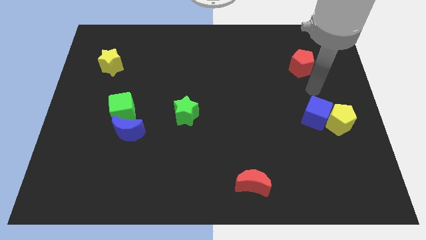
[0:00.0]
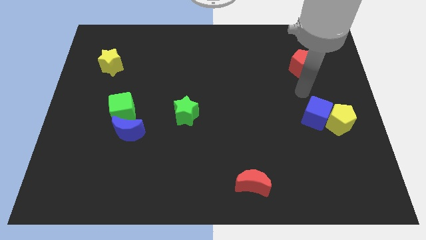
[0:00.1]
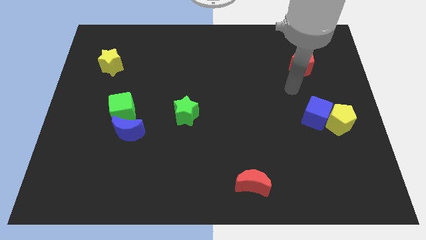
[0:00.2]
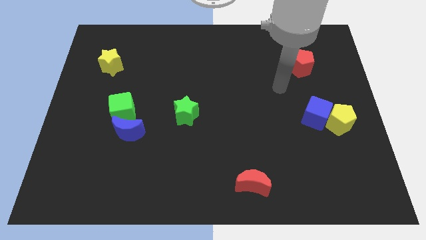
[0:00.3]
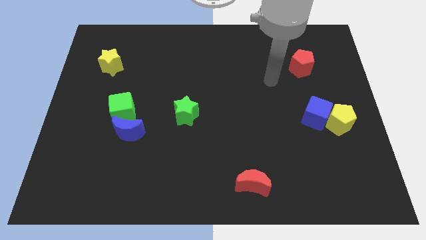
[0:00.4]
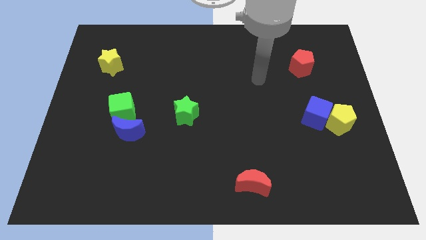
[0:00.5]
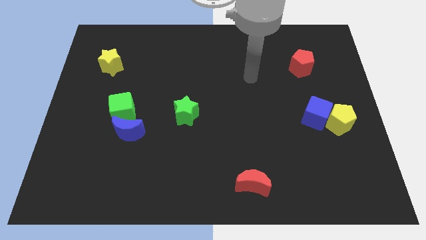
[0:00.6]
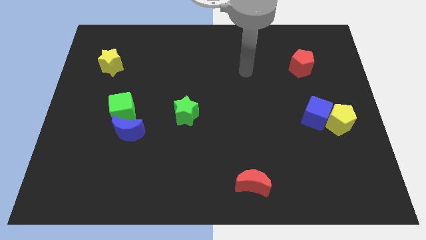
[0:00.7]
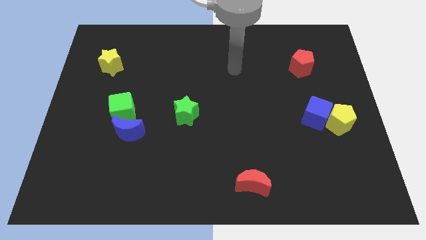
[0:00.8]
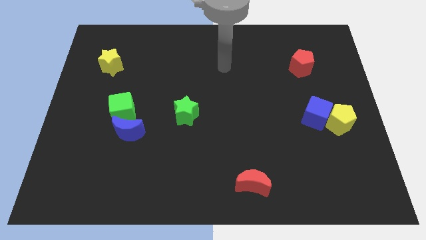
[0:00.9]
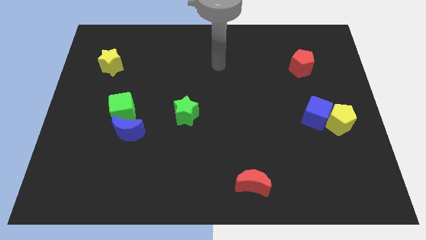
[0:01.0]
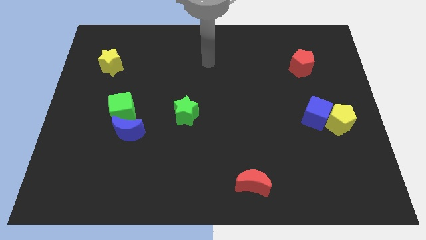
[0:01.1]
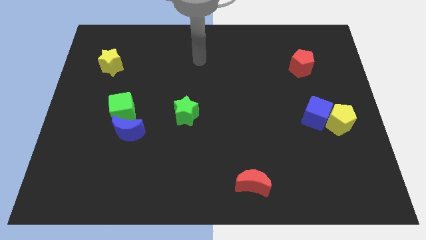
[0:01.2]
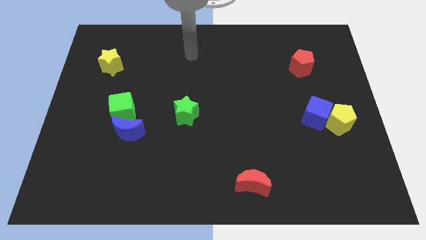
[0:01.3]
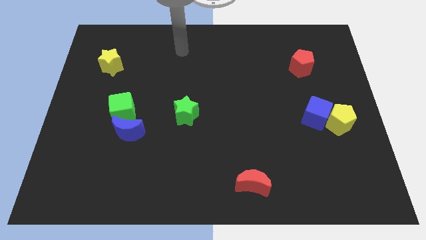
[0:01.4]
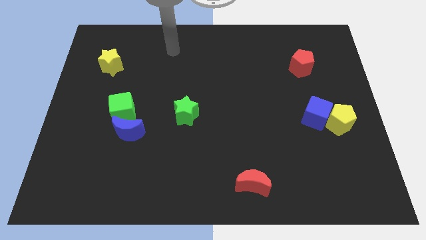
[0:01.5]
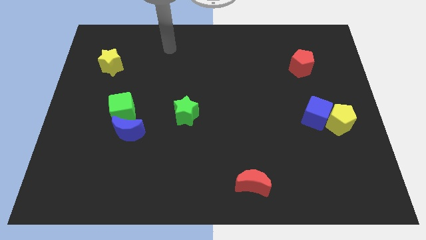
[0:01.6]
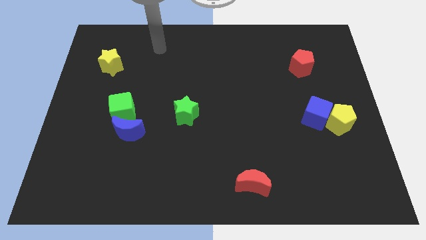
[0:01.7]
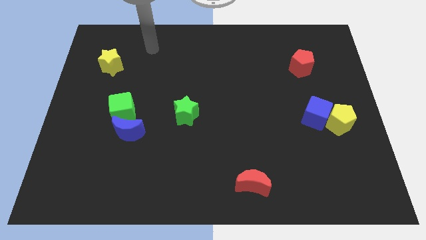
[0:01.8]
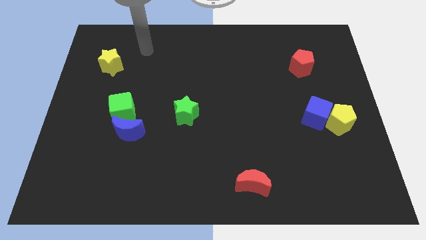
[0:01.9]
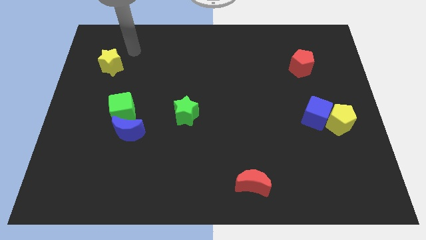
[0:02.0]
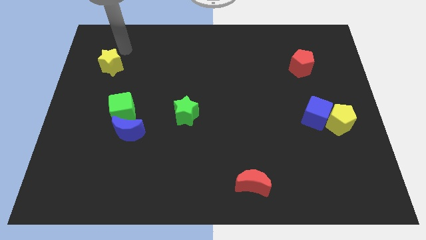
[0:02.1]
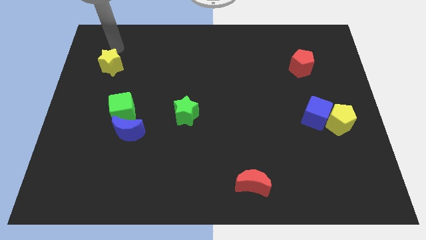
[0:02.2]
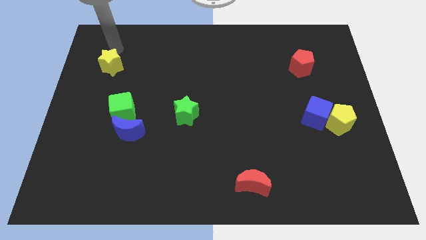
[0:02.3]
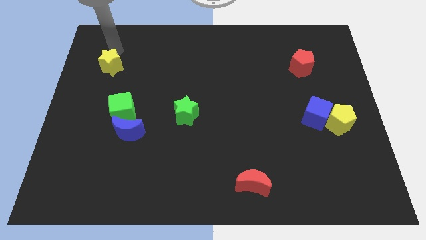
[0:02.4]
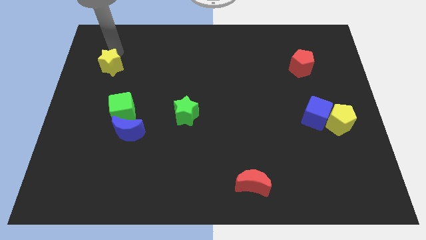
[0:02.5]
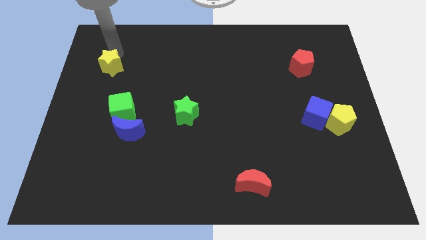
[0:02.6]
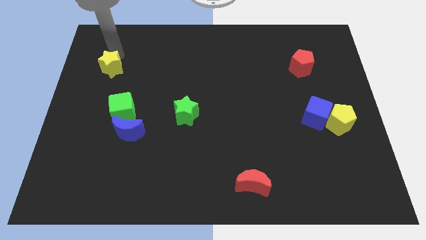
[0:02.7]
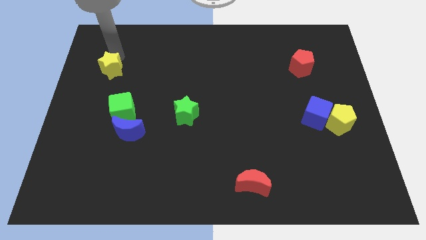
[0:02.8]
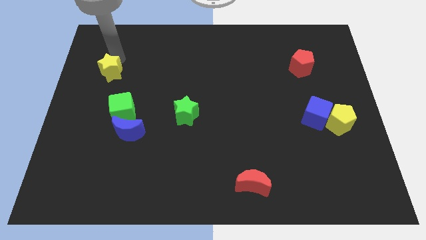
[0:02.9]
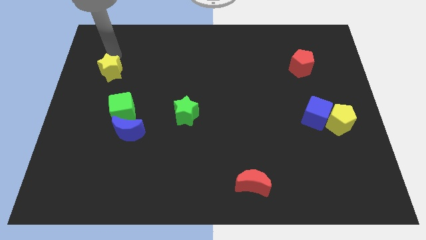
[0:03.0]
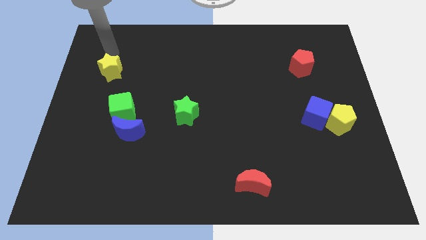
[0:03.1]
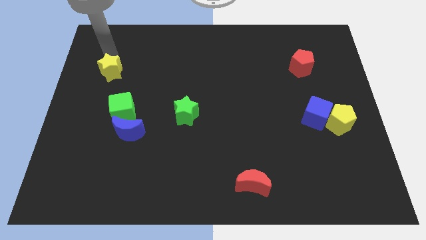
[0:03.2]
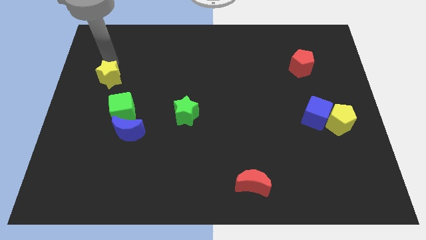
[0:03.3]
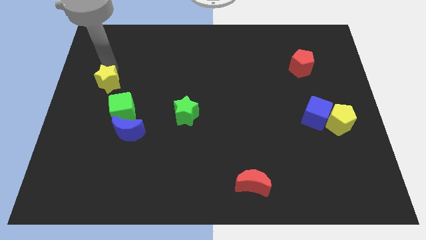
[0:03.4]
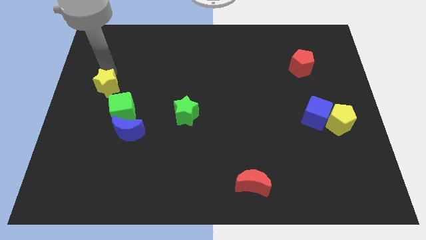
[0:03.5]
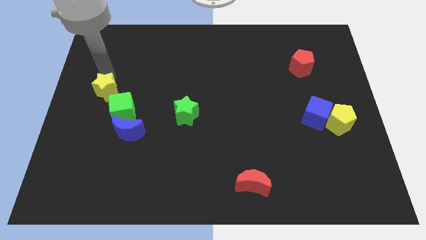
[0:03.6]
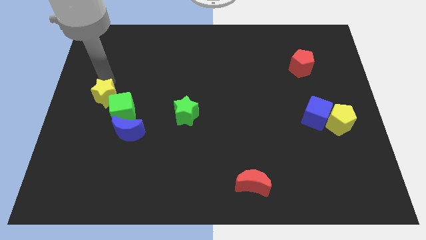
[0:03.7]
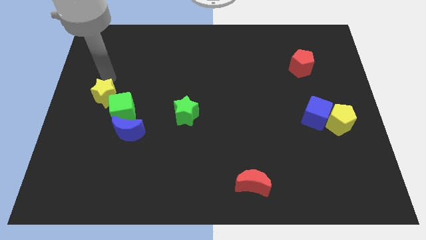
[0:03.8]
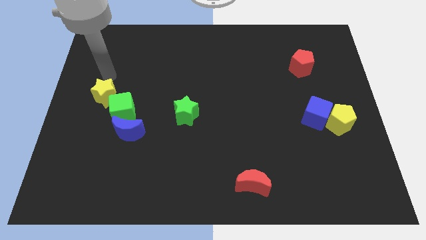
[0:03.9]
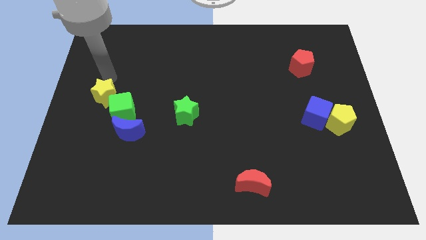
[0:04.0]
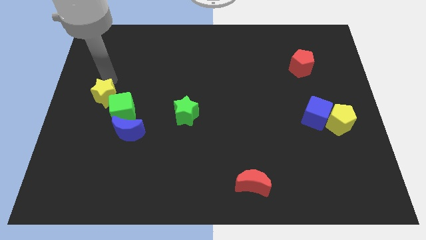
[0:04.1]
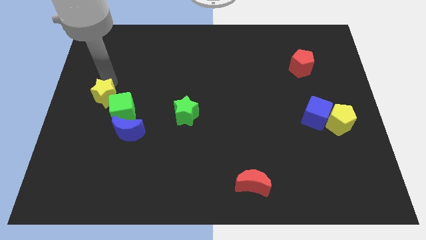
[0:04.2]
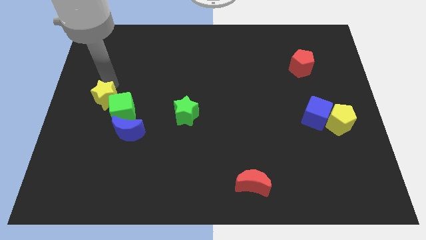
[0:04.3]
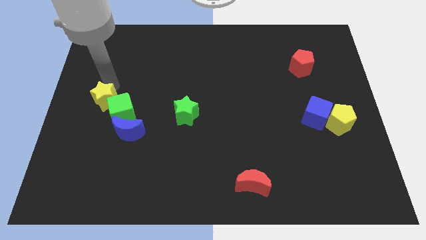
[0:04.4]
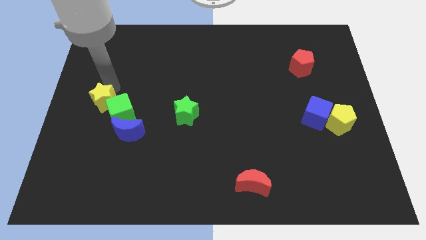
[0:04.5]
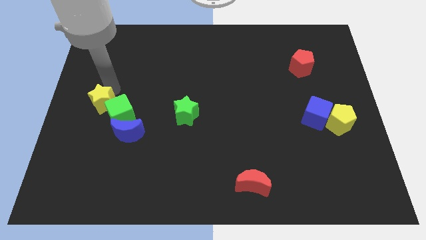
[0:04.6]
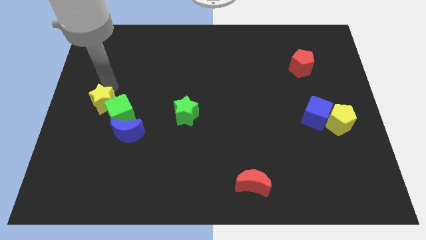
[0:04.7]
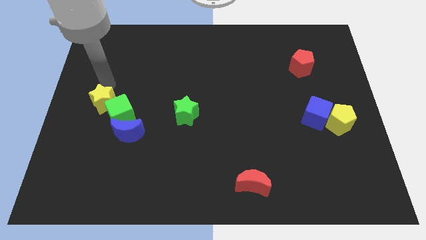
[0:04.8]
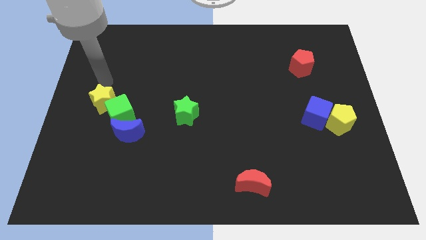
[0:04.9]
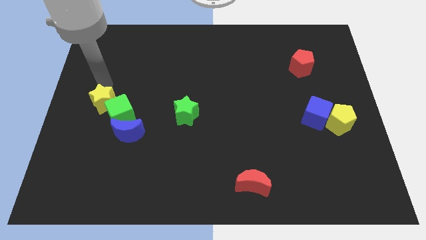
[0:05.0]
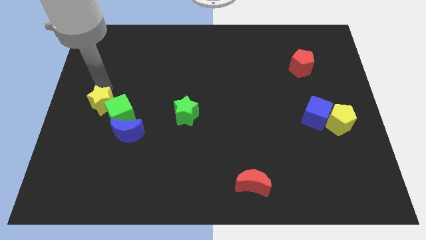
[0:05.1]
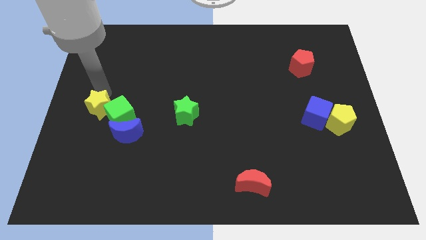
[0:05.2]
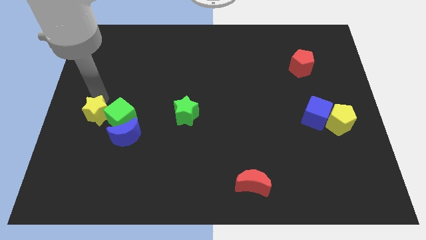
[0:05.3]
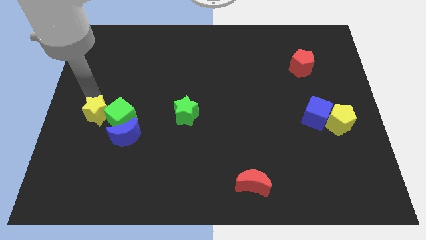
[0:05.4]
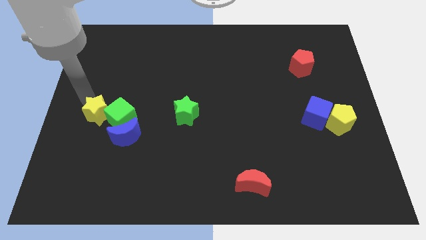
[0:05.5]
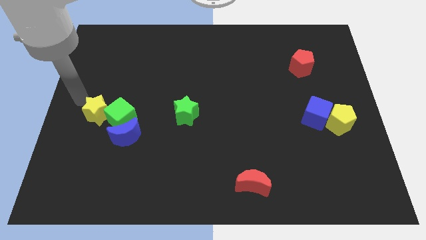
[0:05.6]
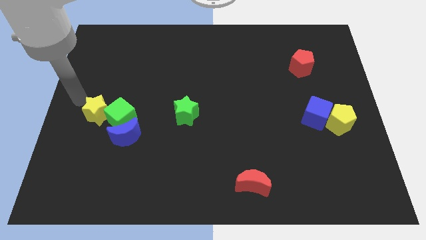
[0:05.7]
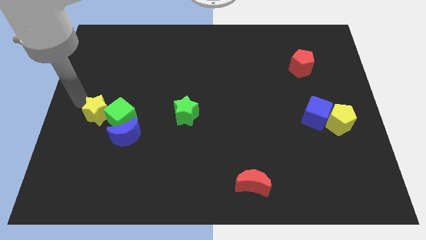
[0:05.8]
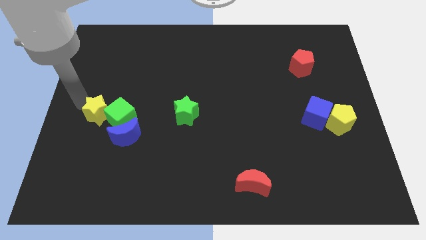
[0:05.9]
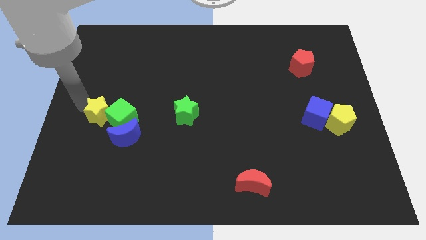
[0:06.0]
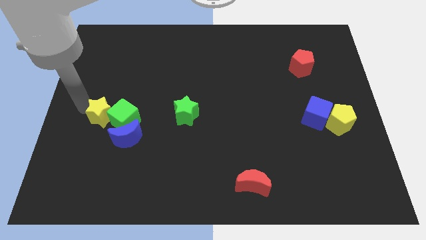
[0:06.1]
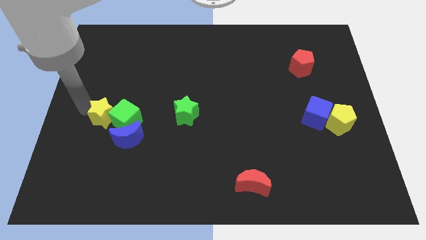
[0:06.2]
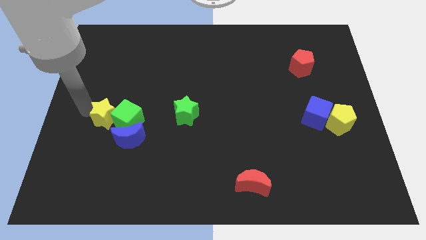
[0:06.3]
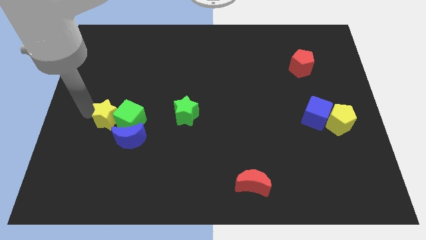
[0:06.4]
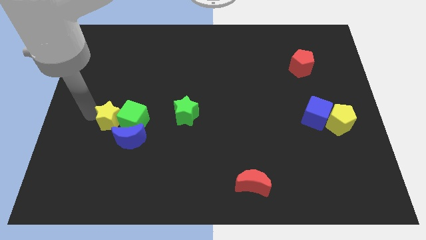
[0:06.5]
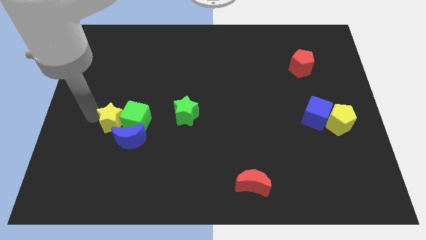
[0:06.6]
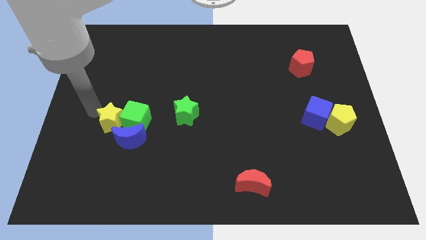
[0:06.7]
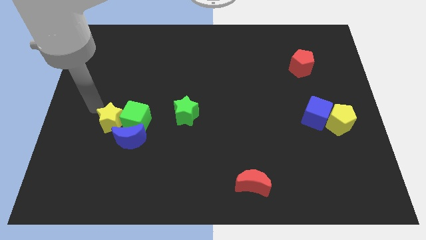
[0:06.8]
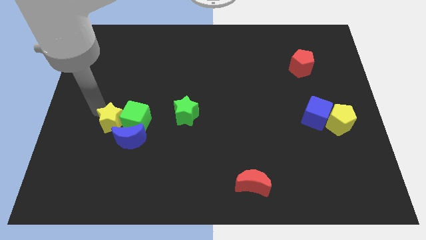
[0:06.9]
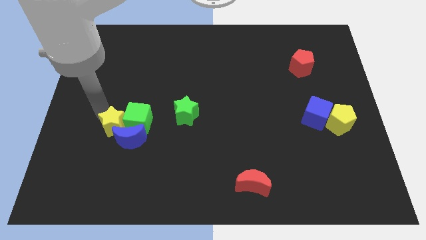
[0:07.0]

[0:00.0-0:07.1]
move the yellow star towards the blue moon
